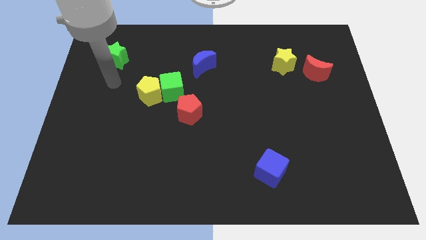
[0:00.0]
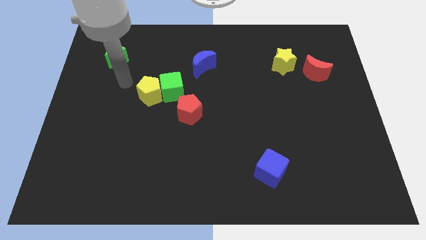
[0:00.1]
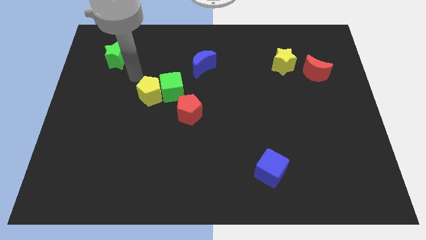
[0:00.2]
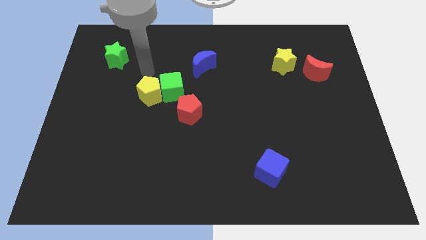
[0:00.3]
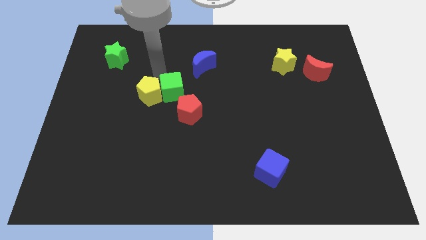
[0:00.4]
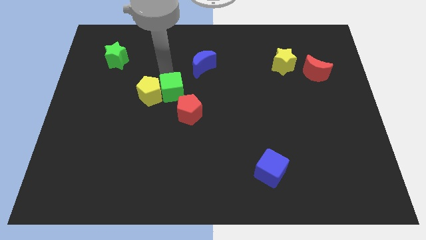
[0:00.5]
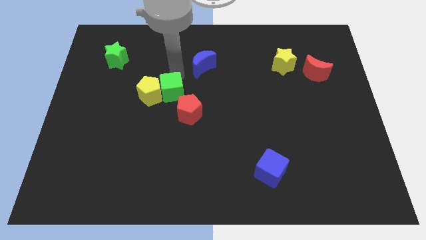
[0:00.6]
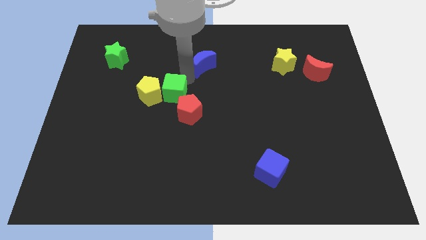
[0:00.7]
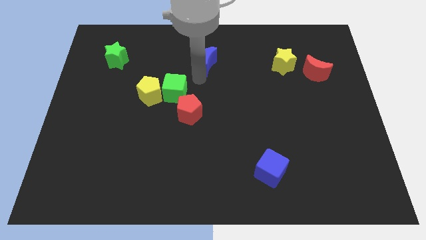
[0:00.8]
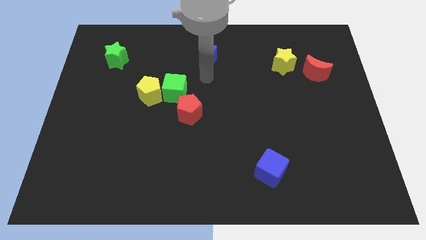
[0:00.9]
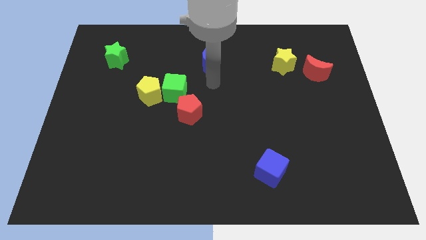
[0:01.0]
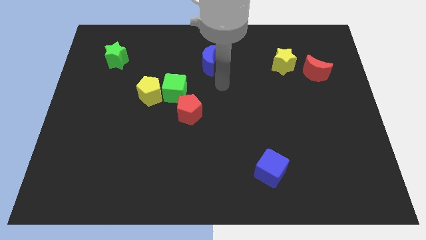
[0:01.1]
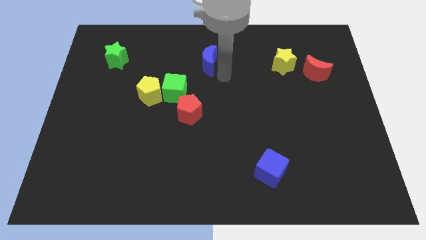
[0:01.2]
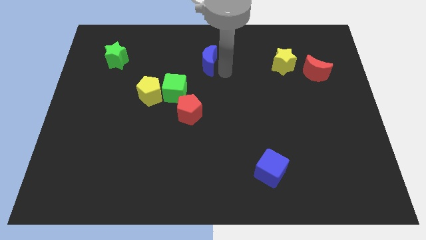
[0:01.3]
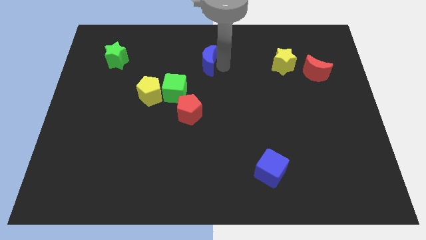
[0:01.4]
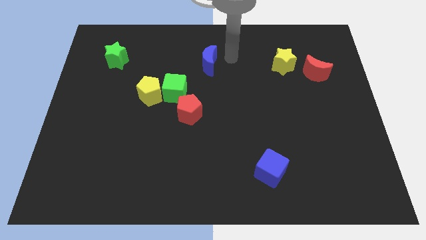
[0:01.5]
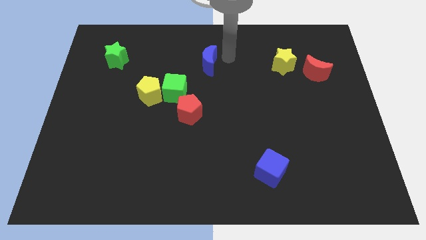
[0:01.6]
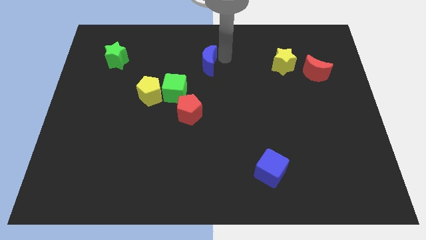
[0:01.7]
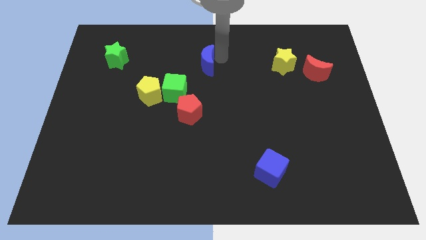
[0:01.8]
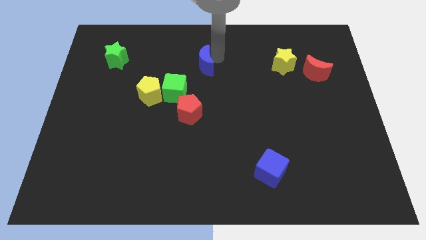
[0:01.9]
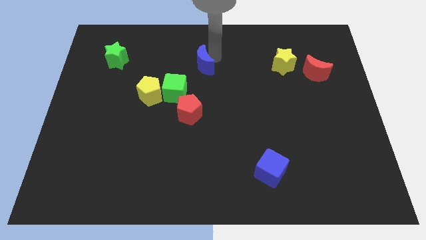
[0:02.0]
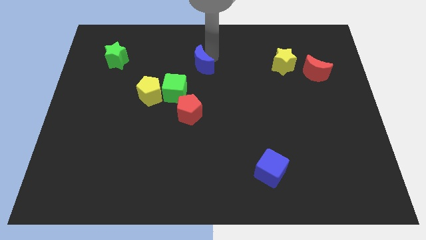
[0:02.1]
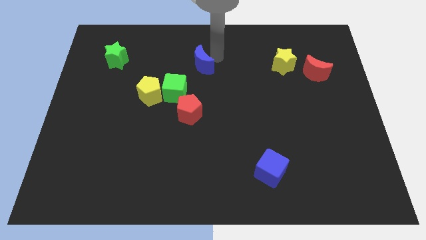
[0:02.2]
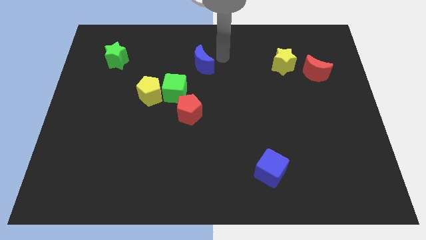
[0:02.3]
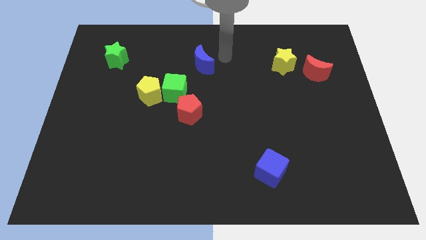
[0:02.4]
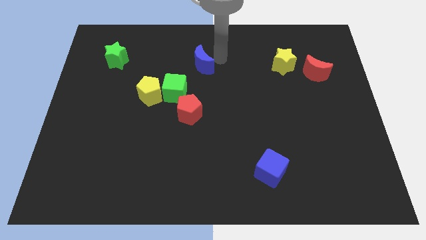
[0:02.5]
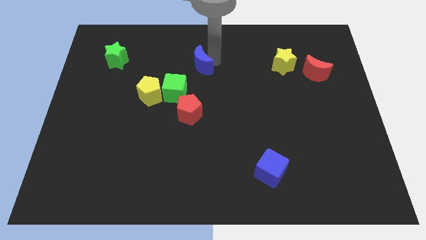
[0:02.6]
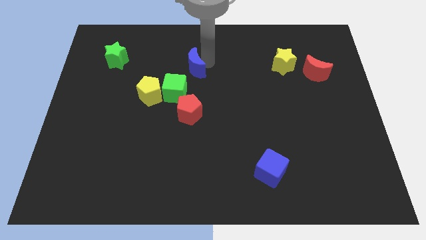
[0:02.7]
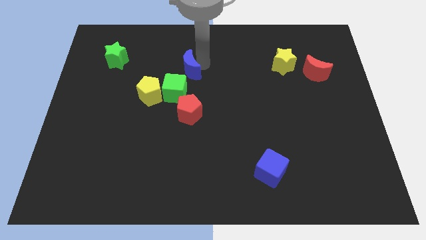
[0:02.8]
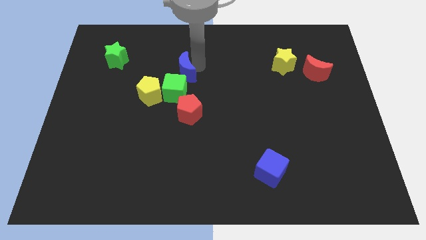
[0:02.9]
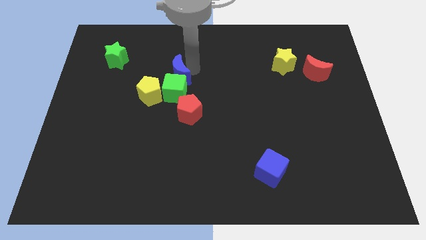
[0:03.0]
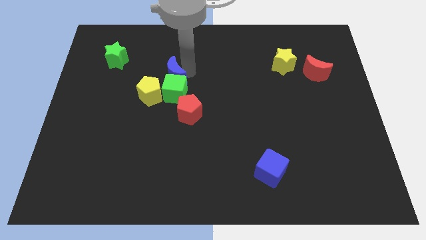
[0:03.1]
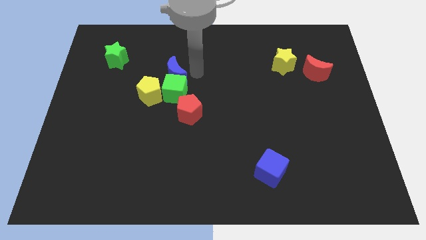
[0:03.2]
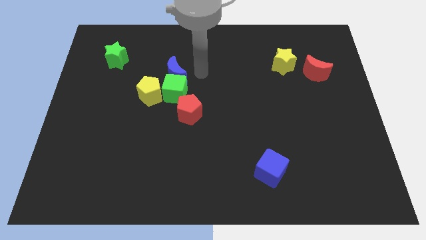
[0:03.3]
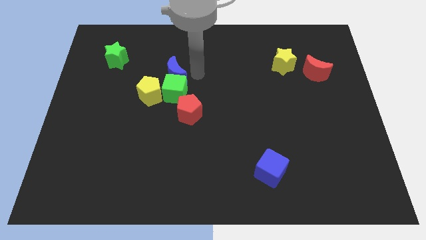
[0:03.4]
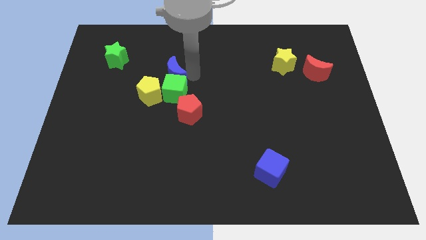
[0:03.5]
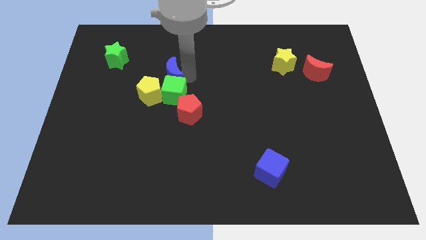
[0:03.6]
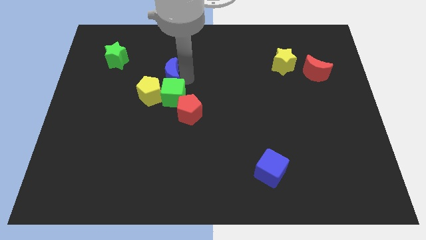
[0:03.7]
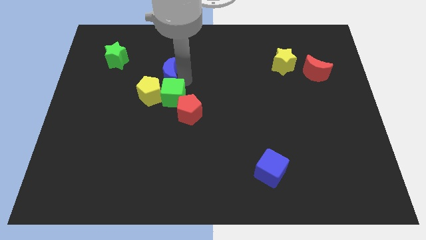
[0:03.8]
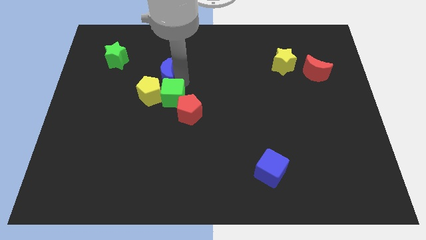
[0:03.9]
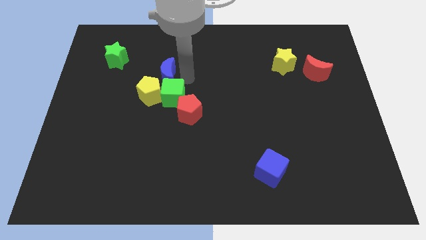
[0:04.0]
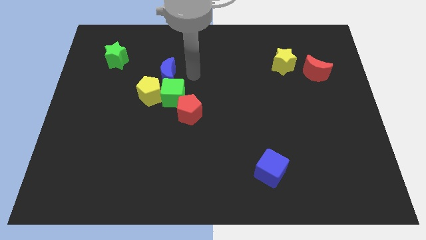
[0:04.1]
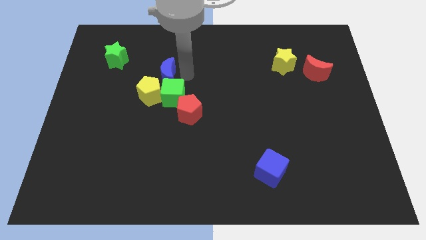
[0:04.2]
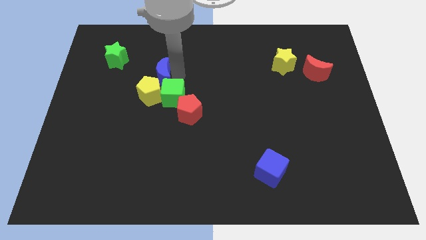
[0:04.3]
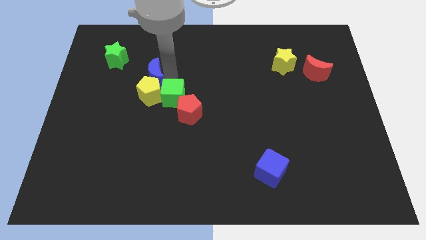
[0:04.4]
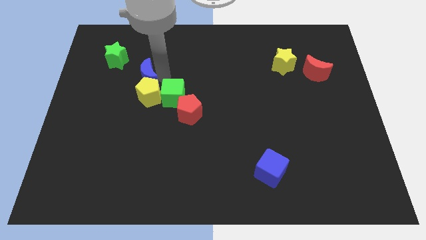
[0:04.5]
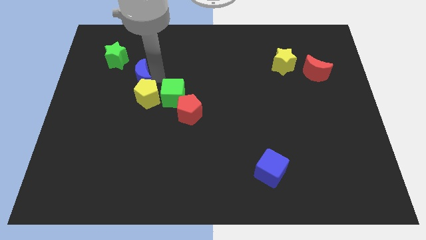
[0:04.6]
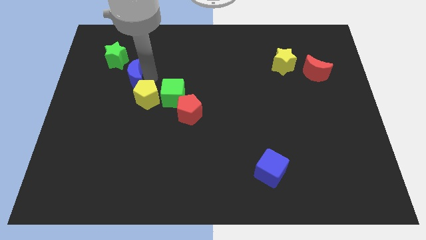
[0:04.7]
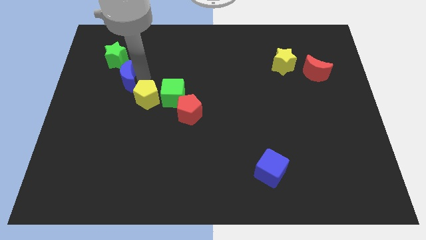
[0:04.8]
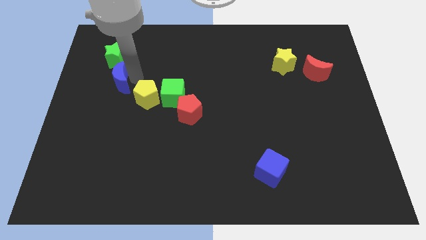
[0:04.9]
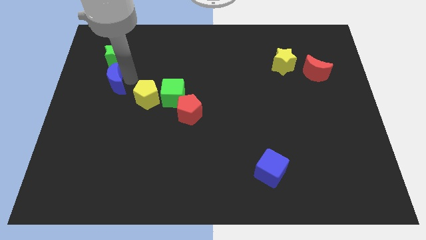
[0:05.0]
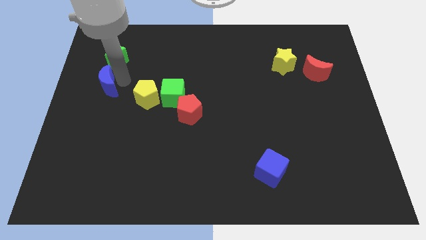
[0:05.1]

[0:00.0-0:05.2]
put the blue moon to the left side of the board

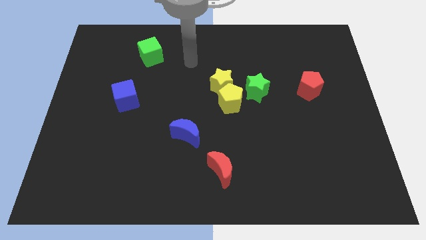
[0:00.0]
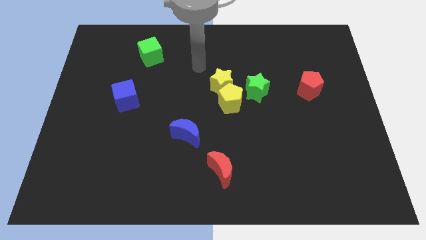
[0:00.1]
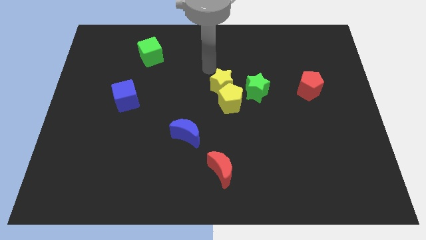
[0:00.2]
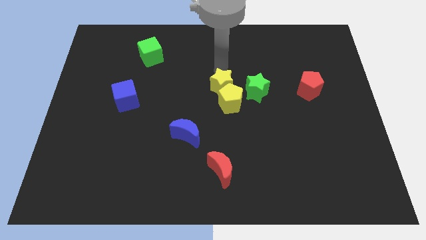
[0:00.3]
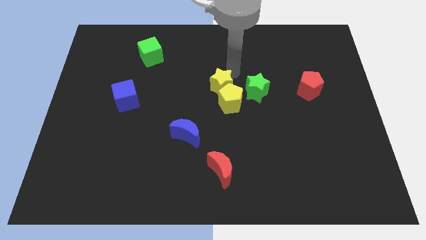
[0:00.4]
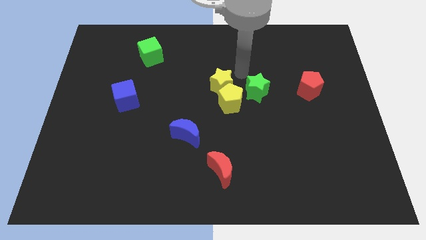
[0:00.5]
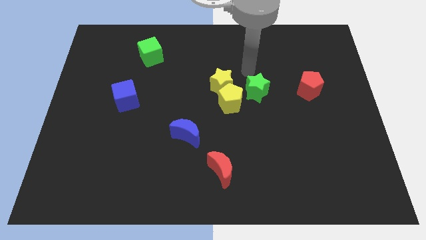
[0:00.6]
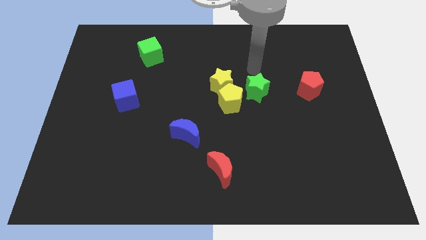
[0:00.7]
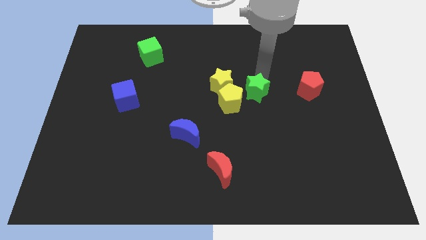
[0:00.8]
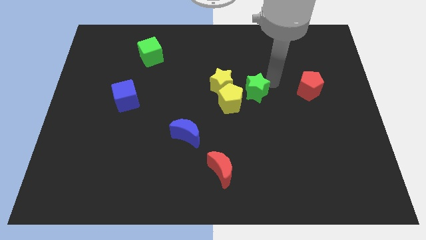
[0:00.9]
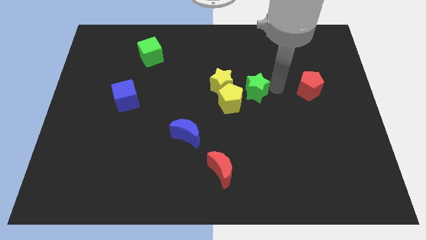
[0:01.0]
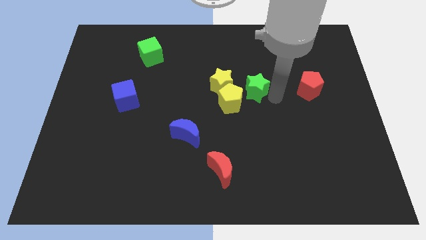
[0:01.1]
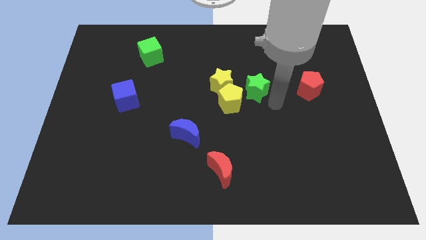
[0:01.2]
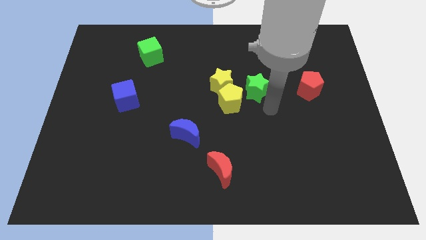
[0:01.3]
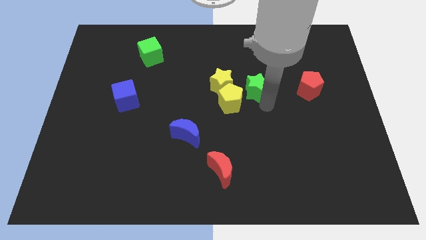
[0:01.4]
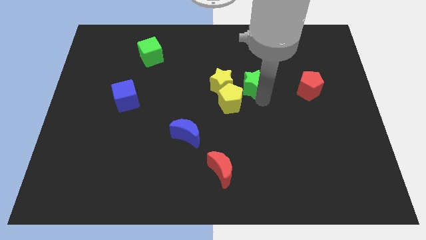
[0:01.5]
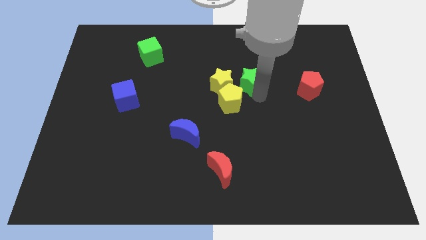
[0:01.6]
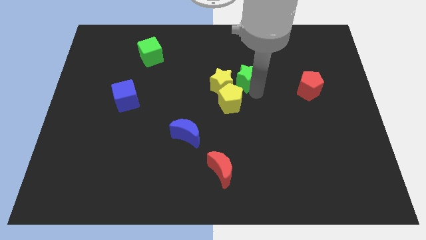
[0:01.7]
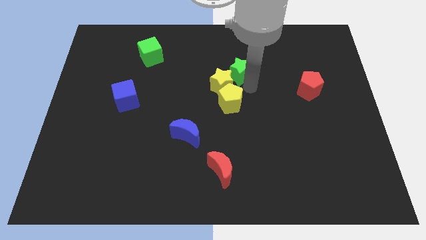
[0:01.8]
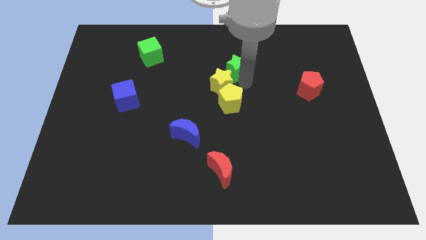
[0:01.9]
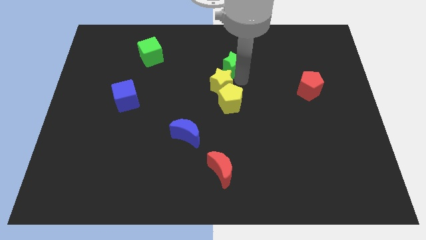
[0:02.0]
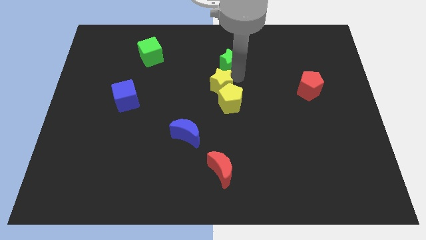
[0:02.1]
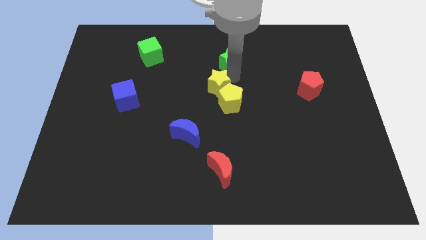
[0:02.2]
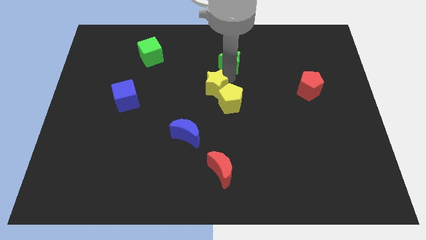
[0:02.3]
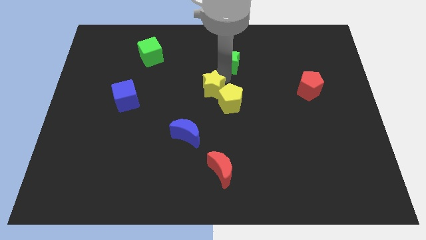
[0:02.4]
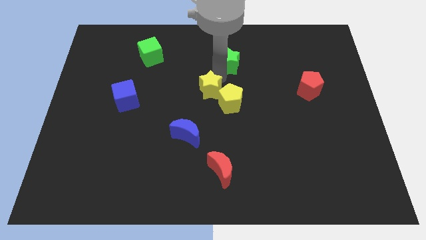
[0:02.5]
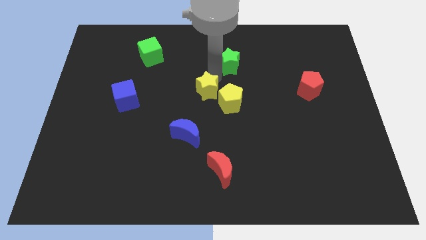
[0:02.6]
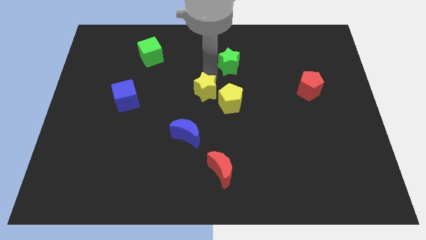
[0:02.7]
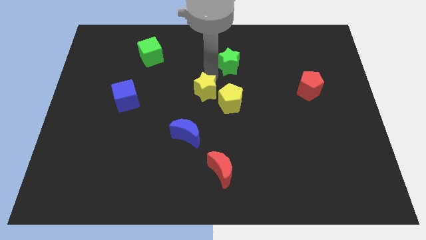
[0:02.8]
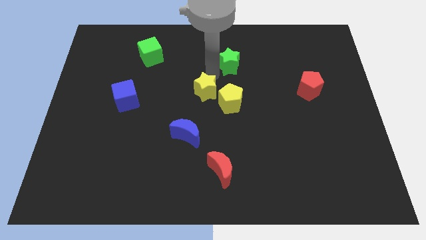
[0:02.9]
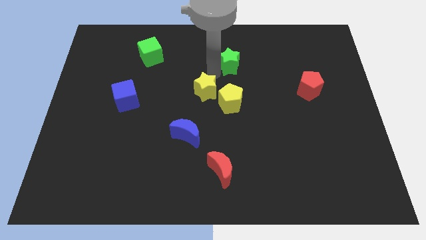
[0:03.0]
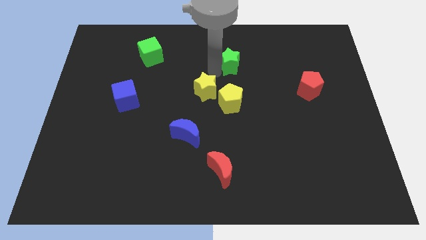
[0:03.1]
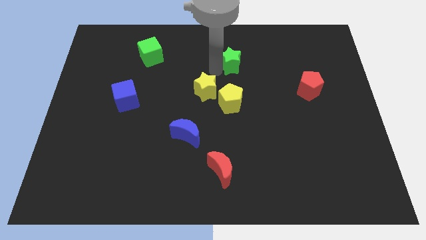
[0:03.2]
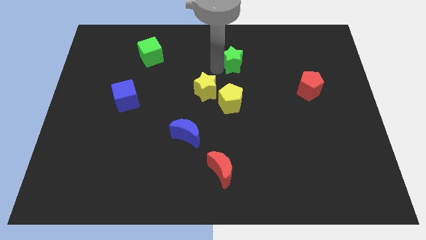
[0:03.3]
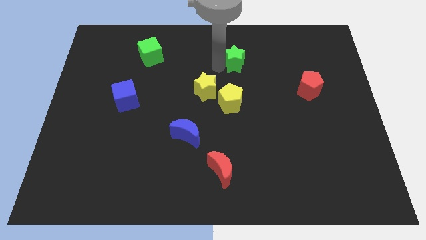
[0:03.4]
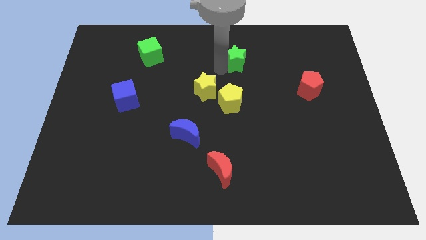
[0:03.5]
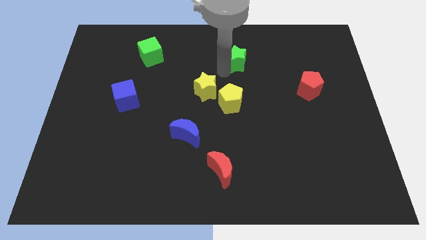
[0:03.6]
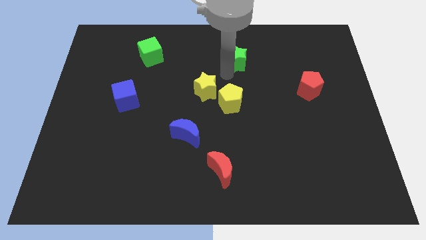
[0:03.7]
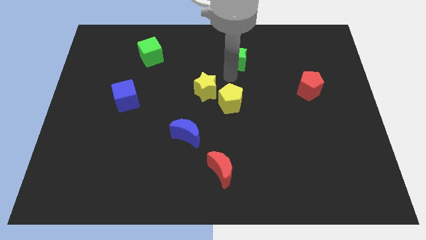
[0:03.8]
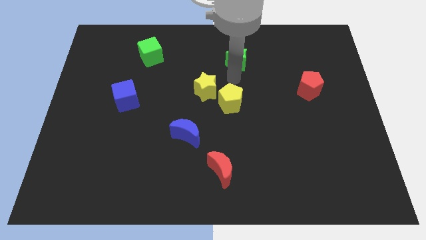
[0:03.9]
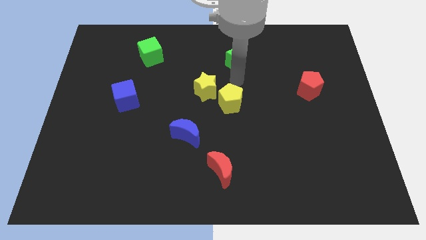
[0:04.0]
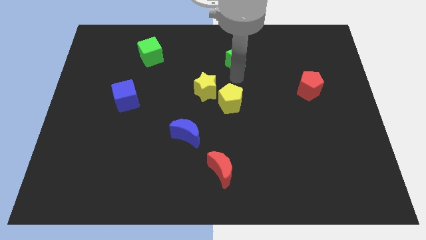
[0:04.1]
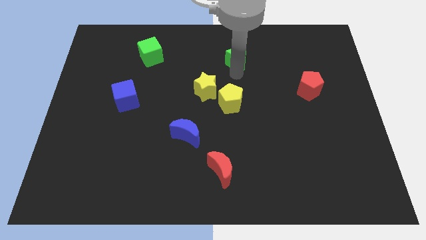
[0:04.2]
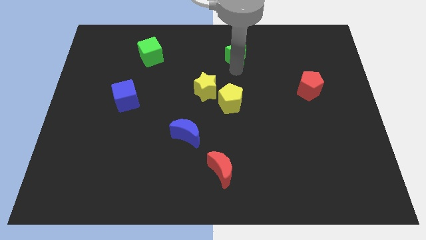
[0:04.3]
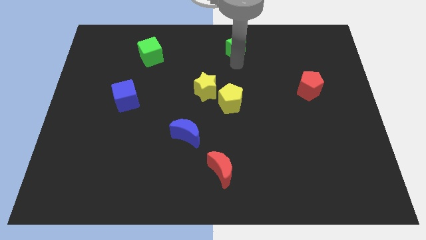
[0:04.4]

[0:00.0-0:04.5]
push the green star to the top
